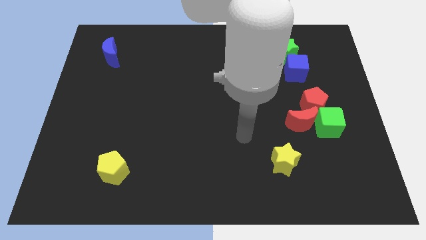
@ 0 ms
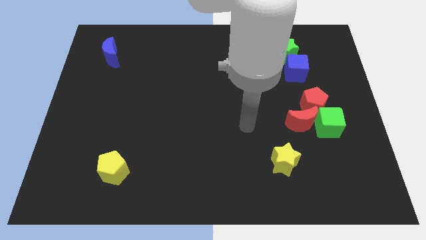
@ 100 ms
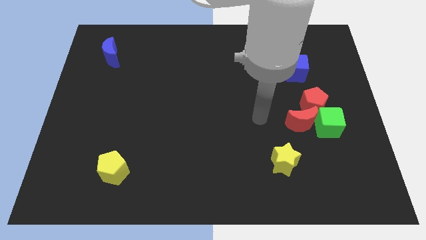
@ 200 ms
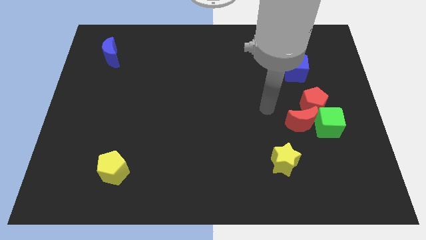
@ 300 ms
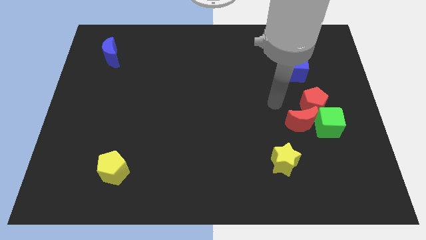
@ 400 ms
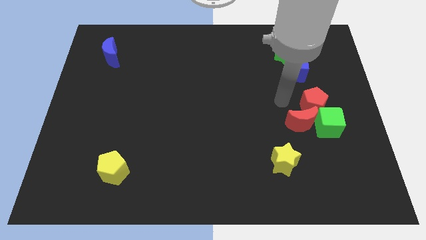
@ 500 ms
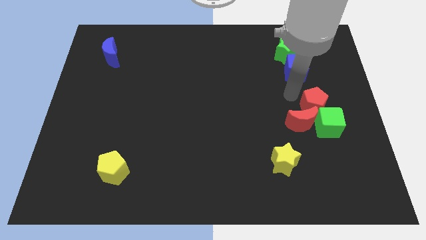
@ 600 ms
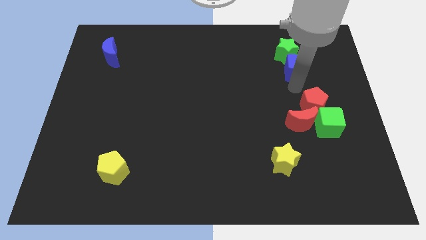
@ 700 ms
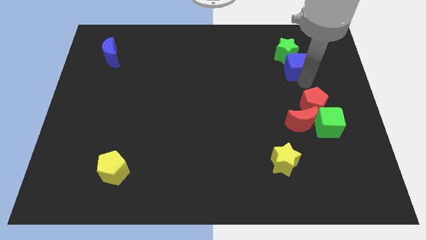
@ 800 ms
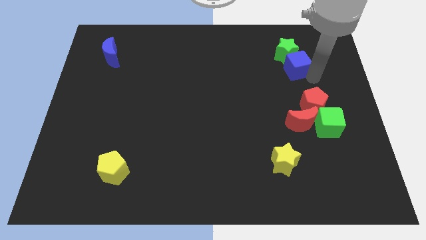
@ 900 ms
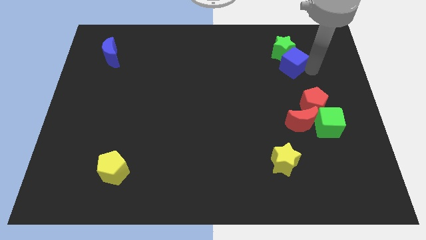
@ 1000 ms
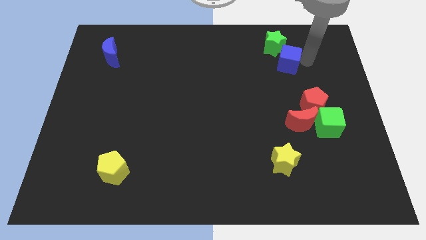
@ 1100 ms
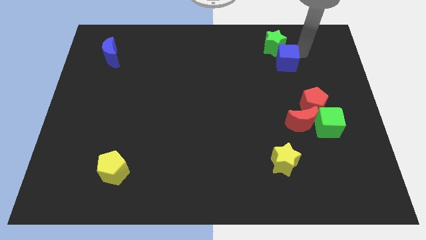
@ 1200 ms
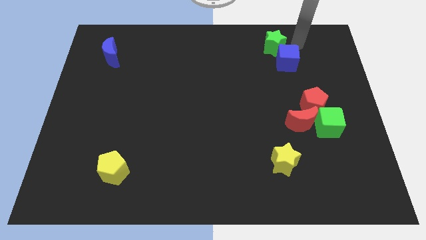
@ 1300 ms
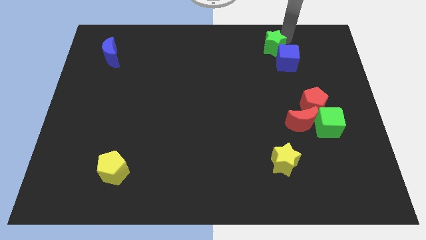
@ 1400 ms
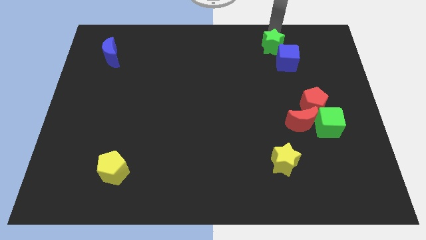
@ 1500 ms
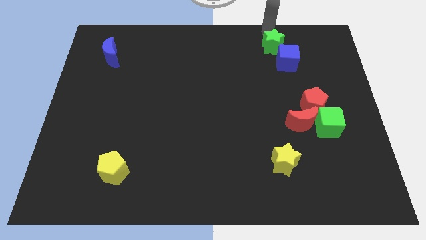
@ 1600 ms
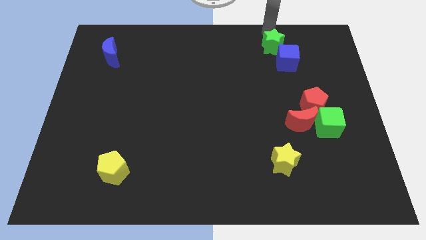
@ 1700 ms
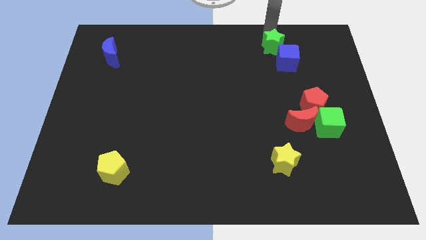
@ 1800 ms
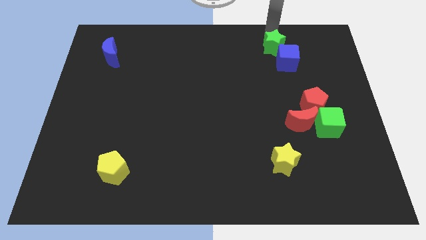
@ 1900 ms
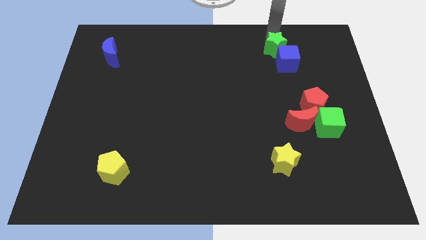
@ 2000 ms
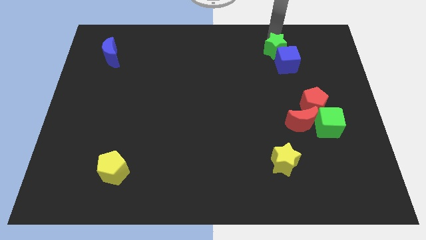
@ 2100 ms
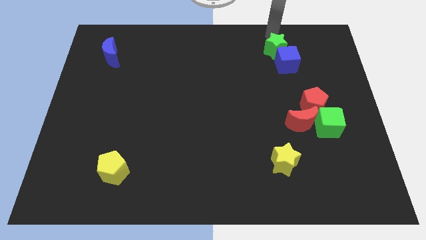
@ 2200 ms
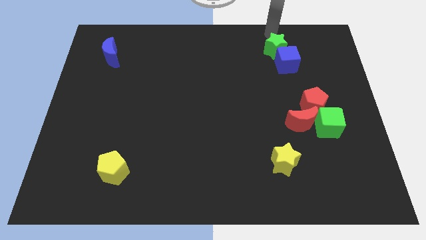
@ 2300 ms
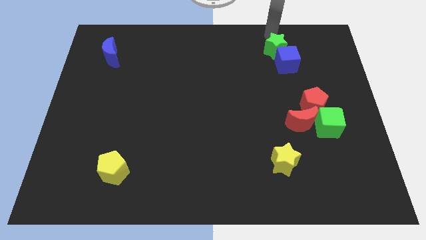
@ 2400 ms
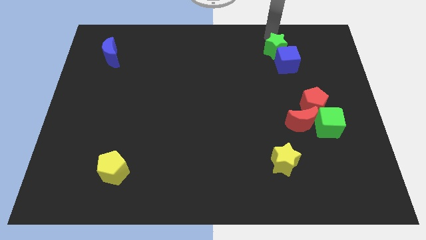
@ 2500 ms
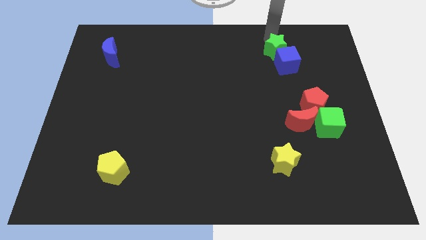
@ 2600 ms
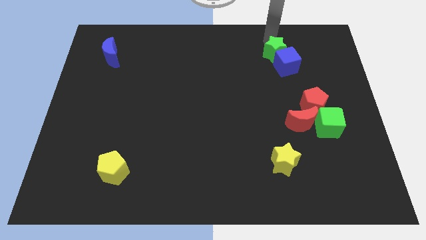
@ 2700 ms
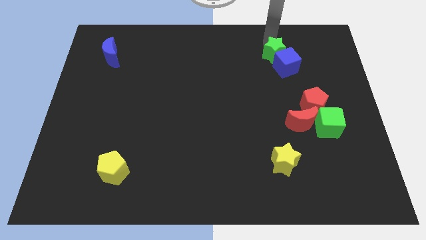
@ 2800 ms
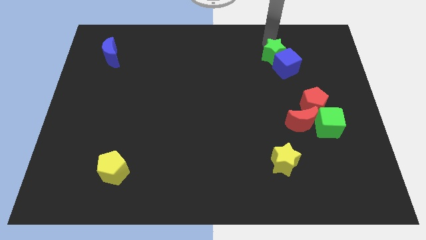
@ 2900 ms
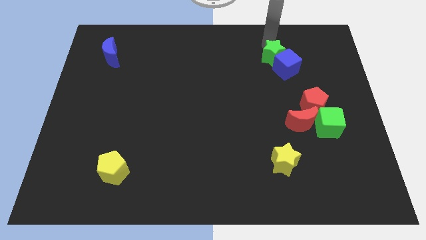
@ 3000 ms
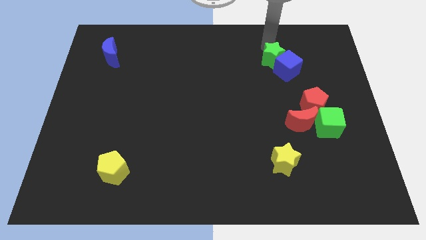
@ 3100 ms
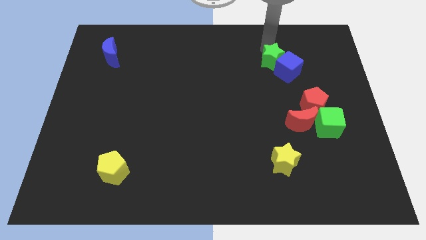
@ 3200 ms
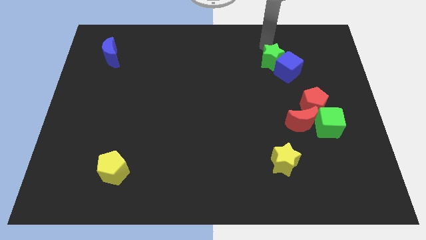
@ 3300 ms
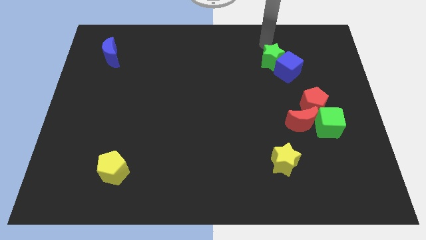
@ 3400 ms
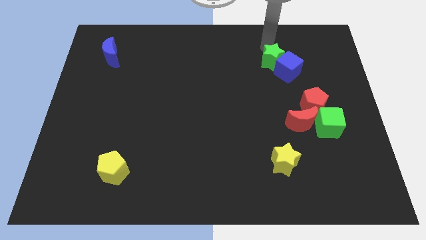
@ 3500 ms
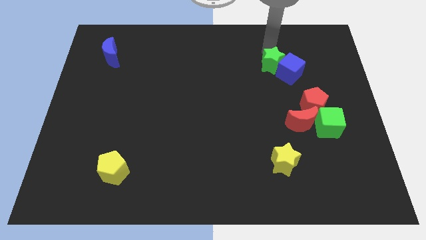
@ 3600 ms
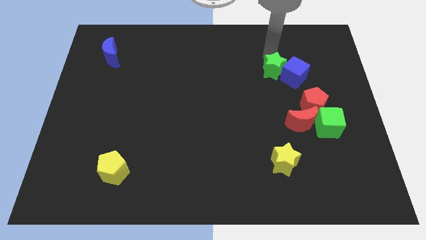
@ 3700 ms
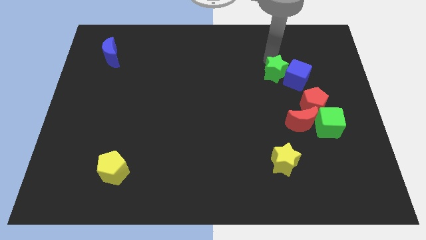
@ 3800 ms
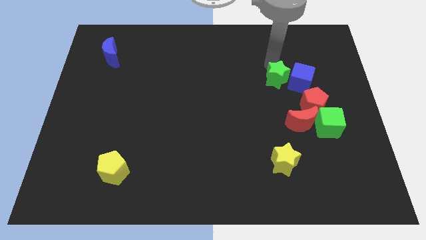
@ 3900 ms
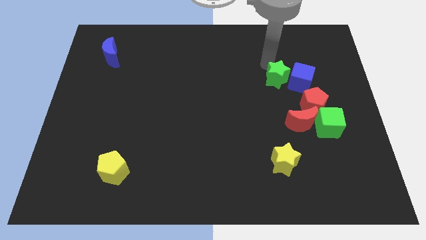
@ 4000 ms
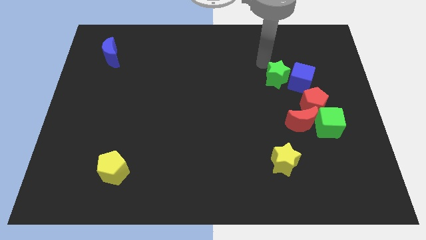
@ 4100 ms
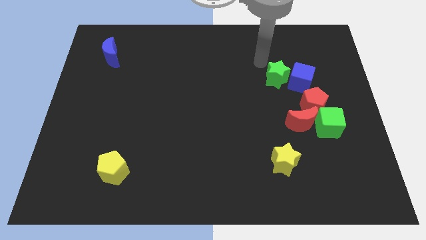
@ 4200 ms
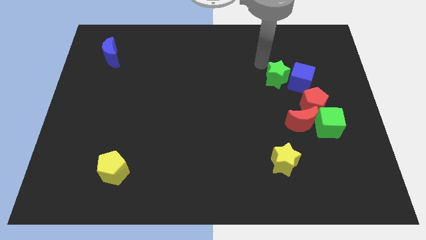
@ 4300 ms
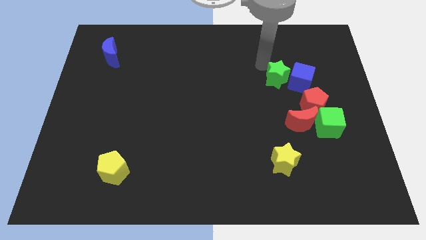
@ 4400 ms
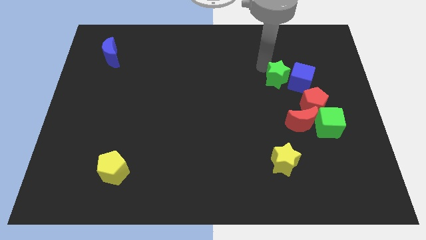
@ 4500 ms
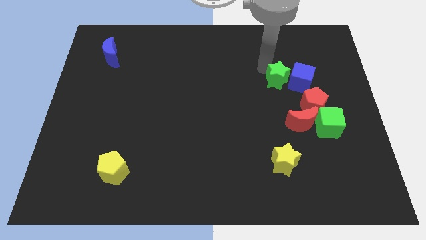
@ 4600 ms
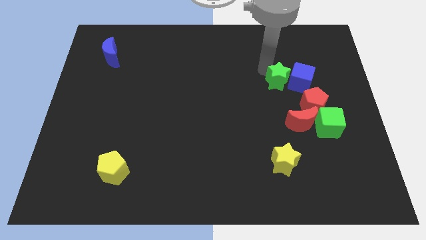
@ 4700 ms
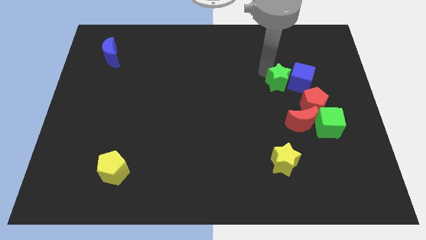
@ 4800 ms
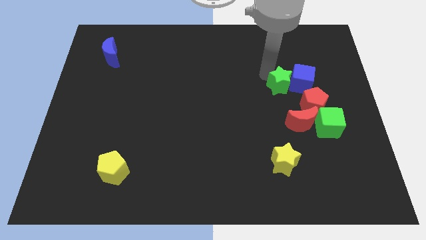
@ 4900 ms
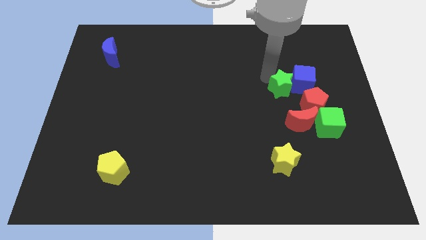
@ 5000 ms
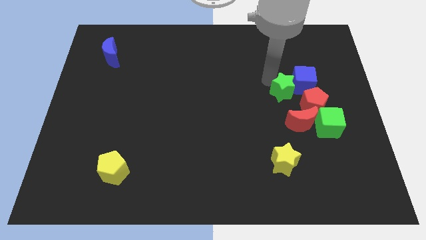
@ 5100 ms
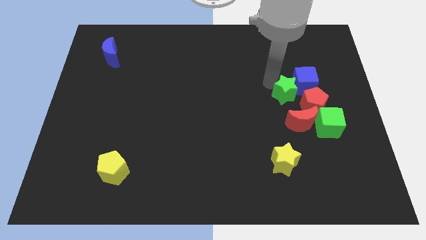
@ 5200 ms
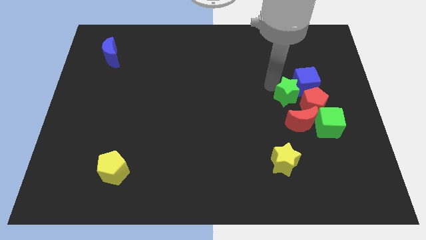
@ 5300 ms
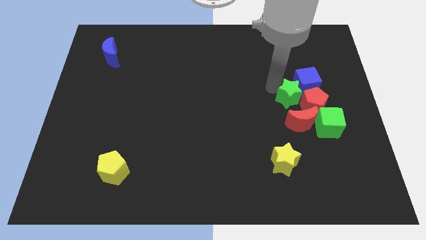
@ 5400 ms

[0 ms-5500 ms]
push the green star to the red pentagon

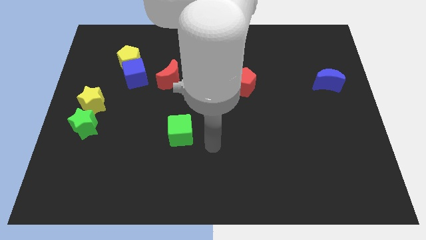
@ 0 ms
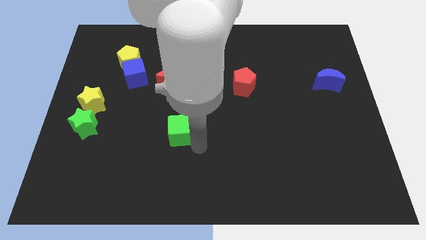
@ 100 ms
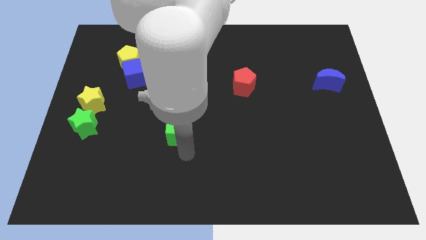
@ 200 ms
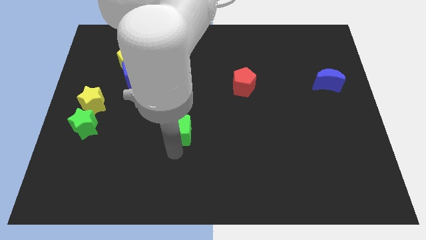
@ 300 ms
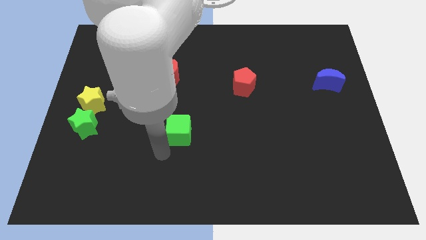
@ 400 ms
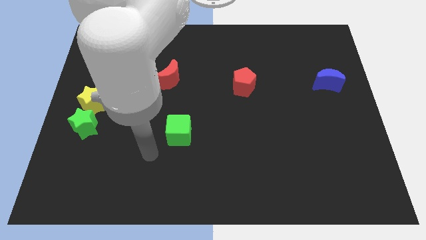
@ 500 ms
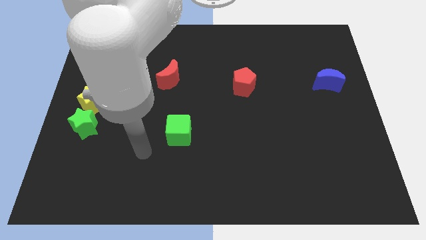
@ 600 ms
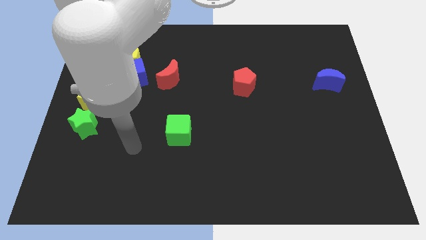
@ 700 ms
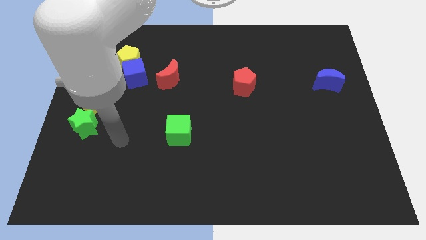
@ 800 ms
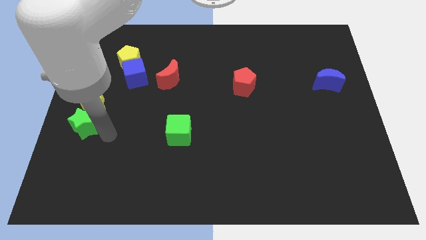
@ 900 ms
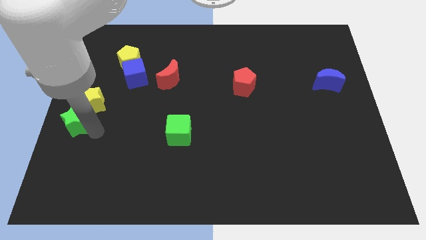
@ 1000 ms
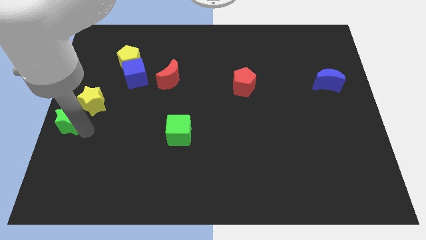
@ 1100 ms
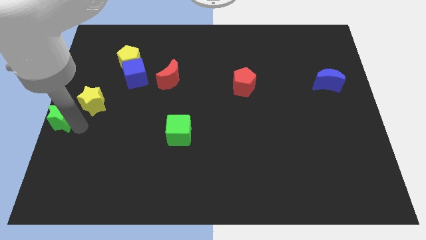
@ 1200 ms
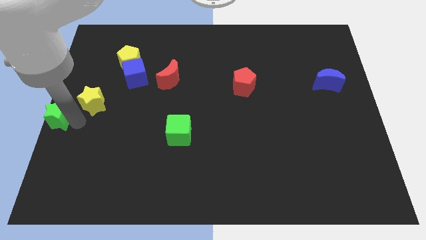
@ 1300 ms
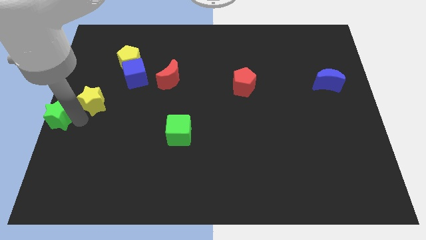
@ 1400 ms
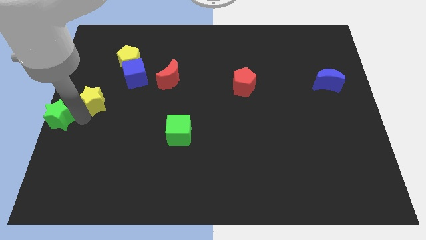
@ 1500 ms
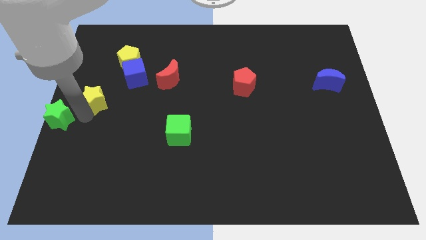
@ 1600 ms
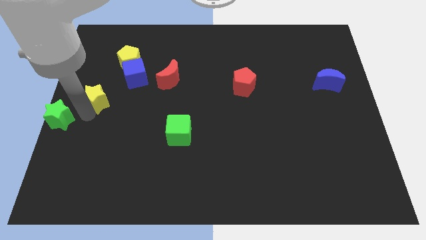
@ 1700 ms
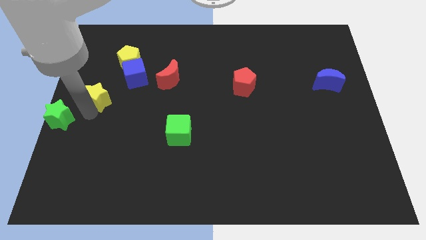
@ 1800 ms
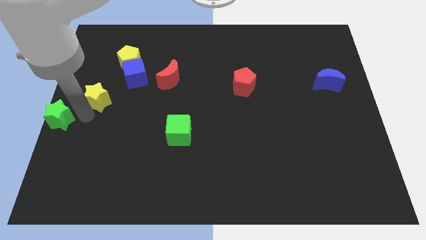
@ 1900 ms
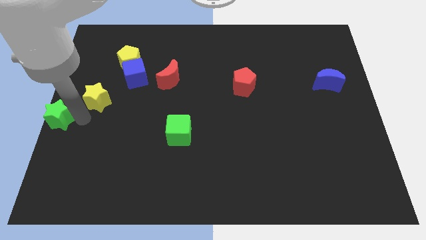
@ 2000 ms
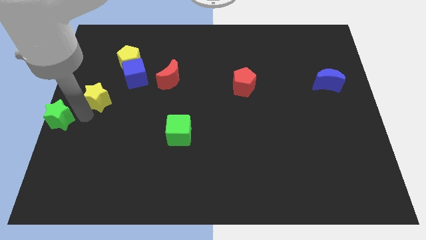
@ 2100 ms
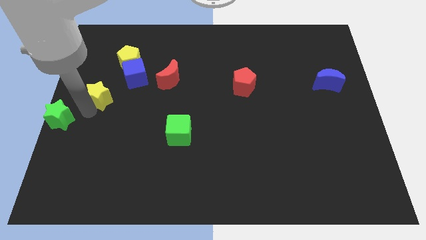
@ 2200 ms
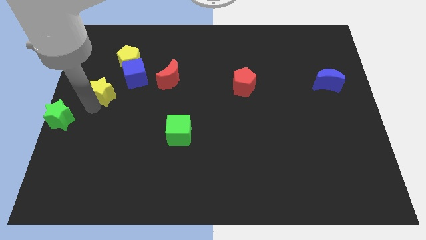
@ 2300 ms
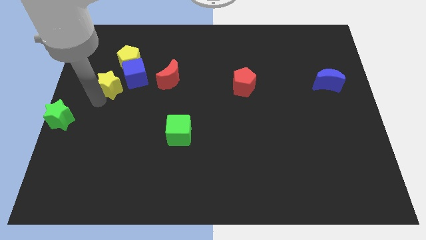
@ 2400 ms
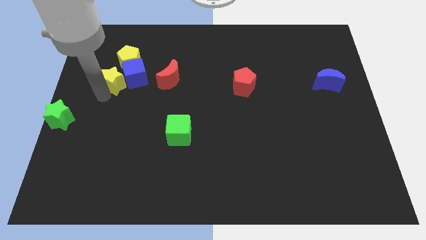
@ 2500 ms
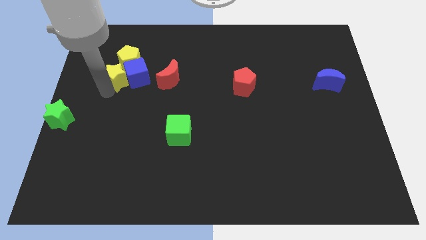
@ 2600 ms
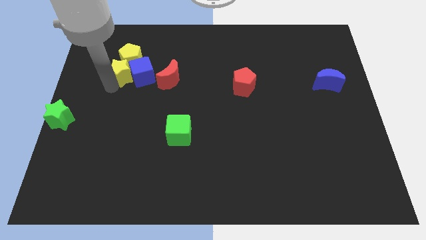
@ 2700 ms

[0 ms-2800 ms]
move the yellow star towards the yellow pentagon

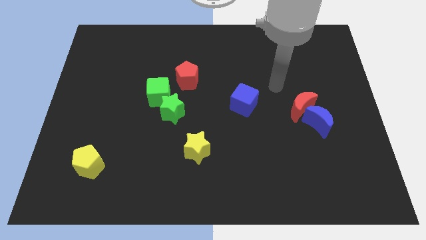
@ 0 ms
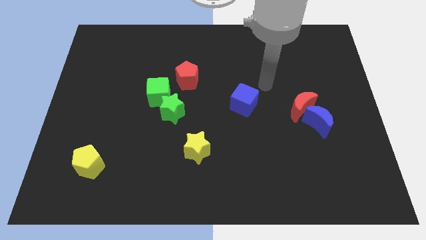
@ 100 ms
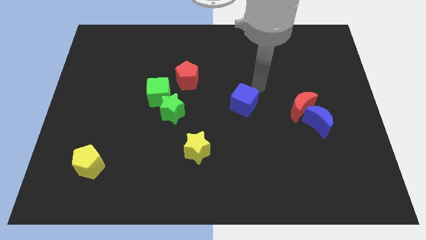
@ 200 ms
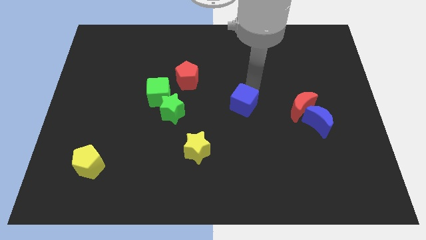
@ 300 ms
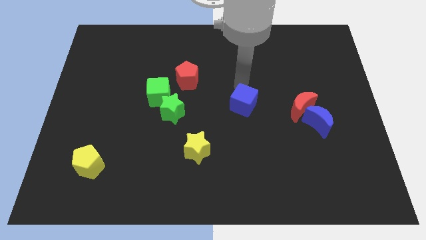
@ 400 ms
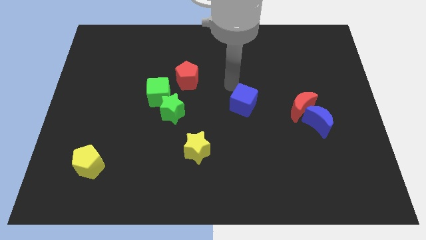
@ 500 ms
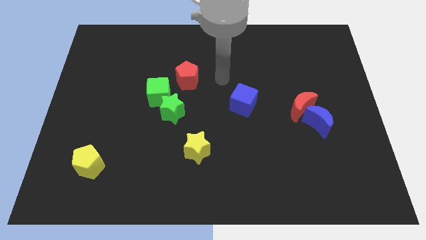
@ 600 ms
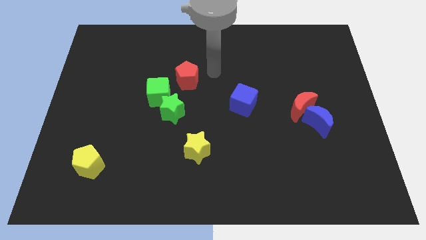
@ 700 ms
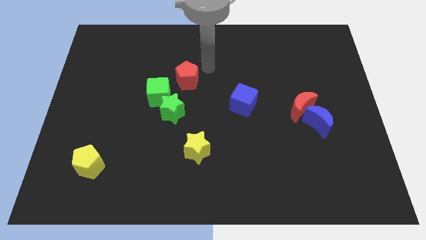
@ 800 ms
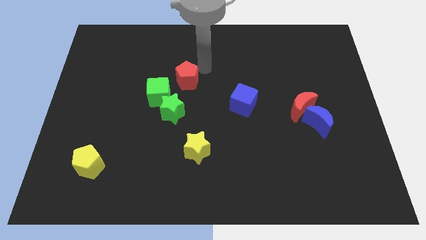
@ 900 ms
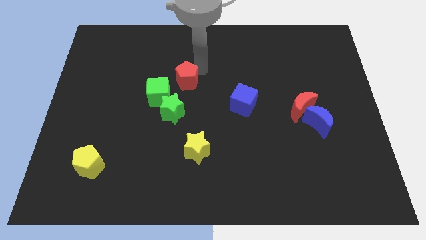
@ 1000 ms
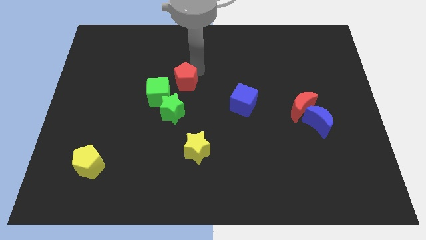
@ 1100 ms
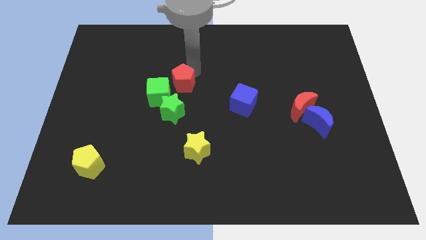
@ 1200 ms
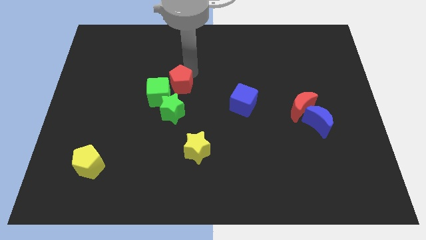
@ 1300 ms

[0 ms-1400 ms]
put the red pentagon to the green cube
